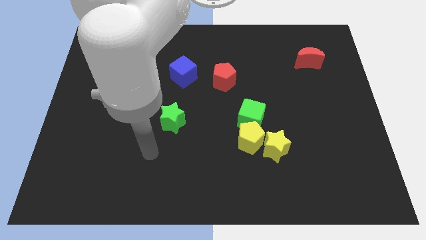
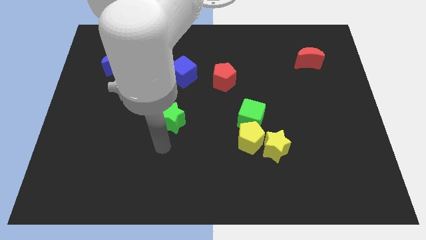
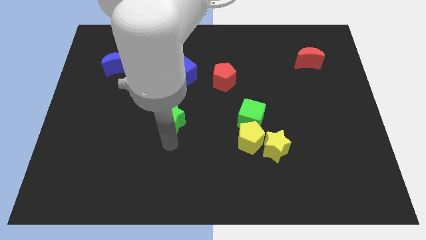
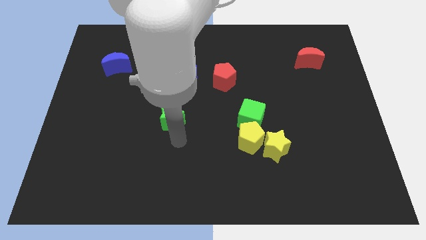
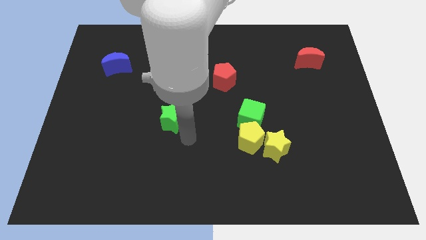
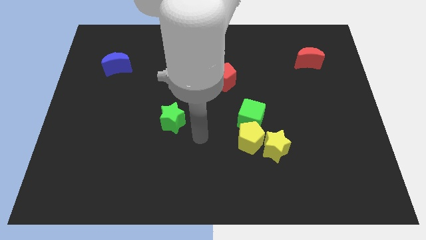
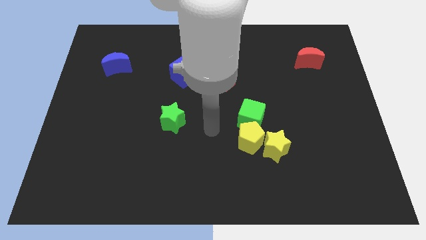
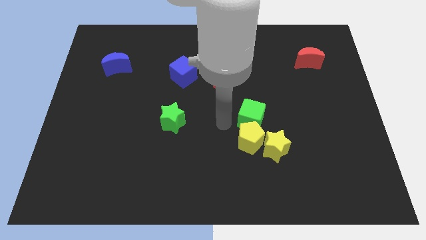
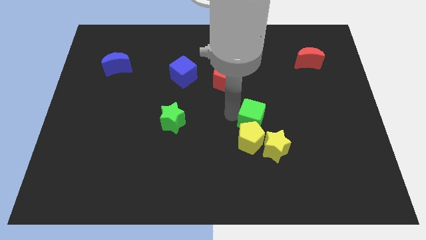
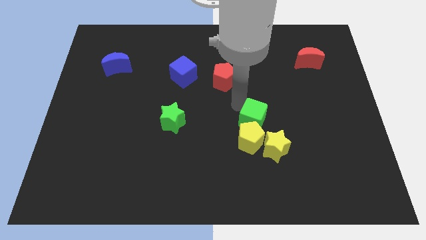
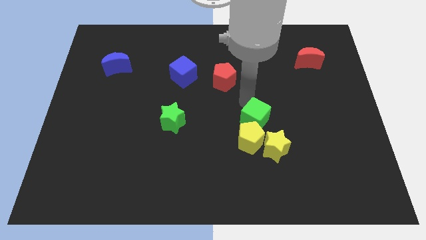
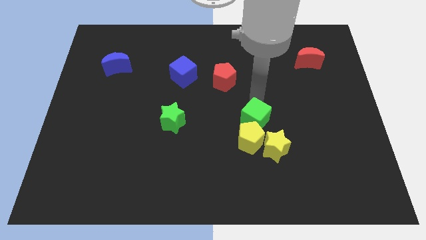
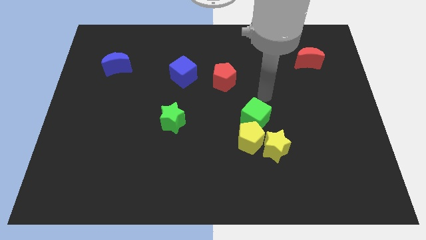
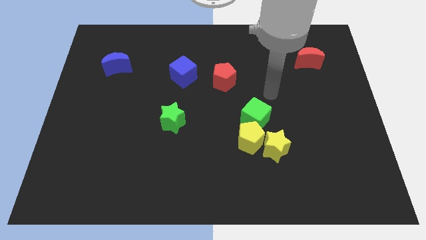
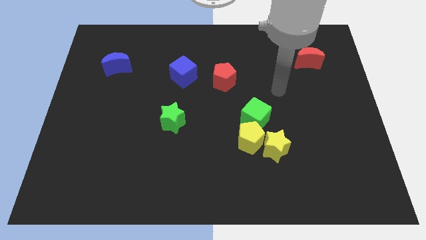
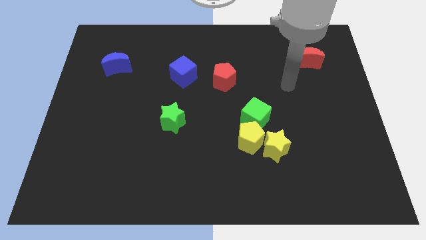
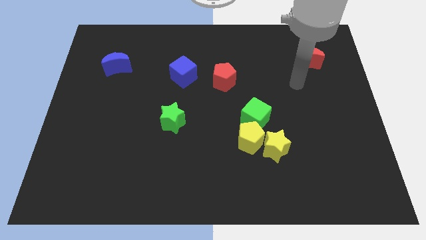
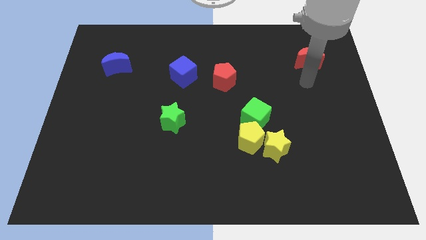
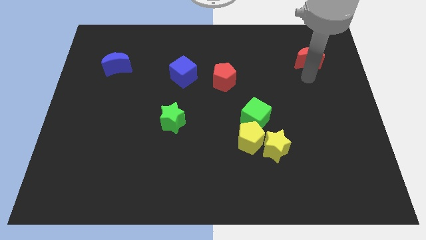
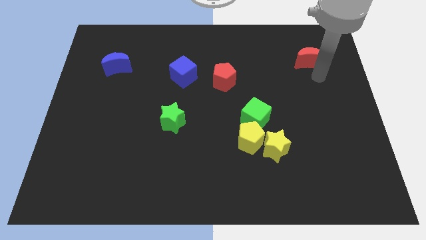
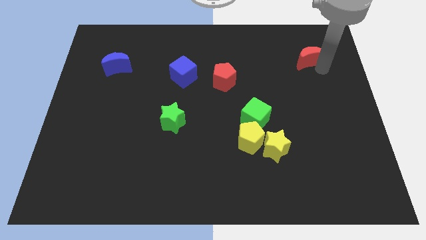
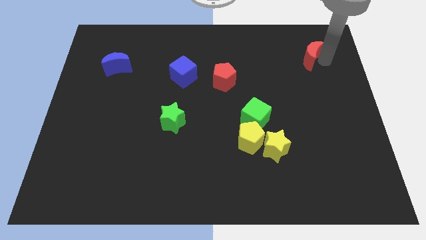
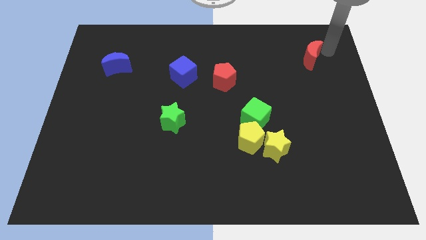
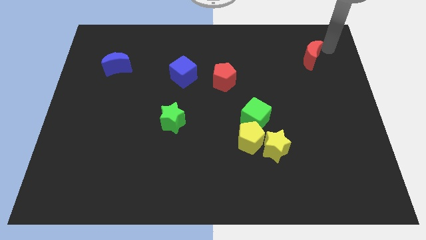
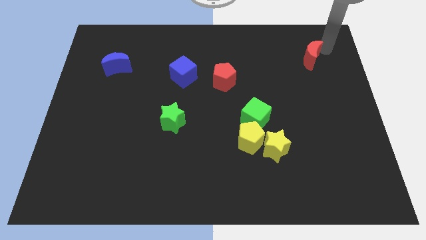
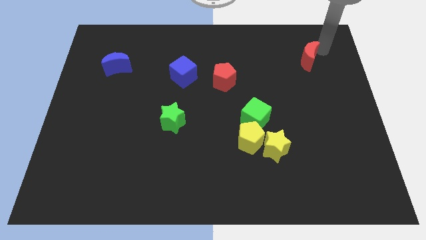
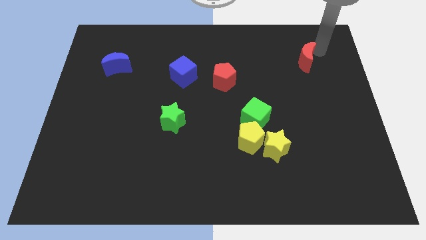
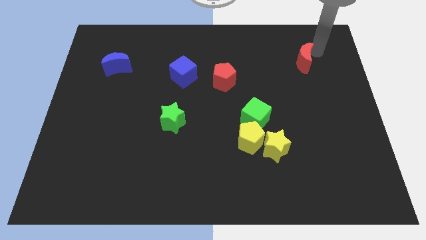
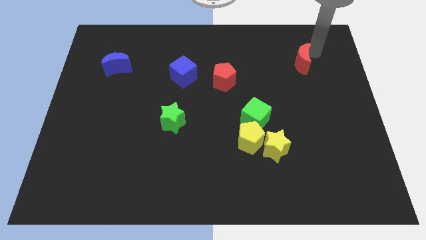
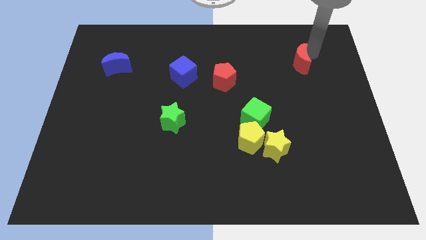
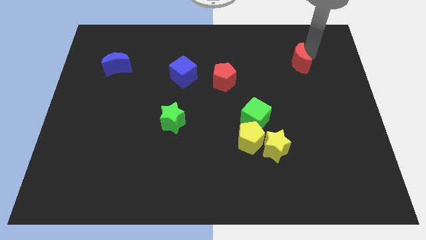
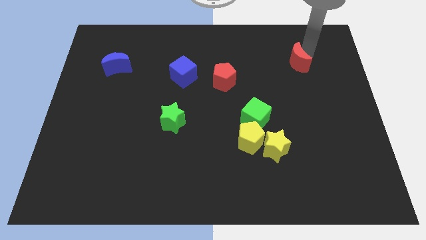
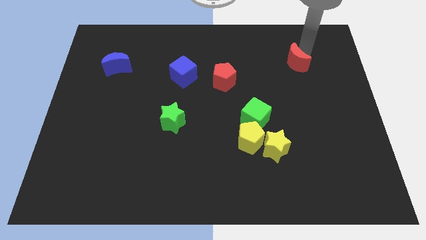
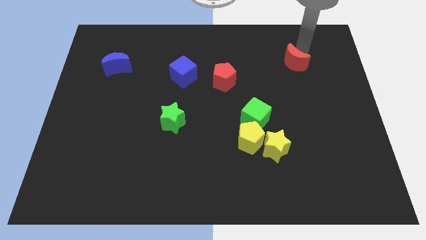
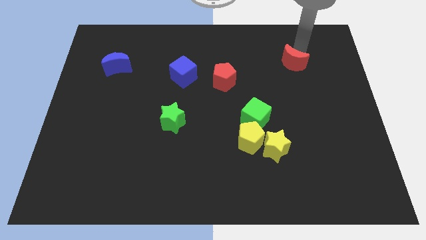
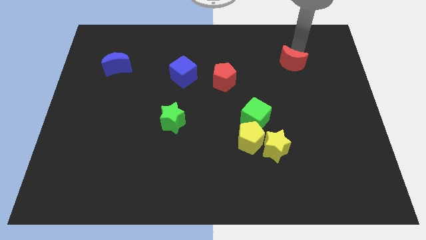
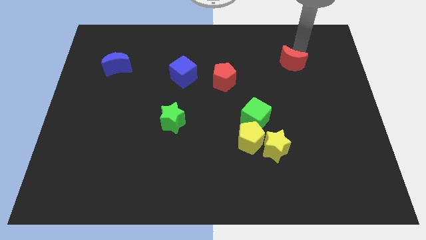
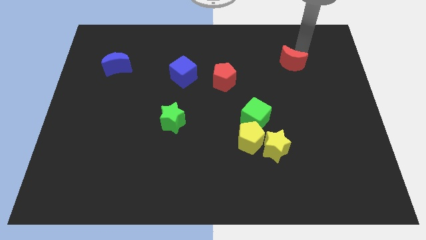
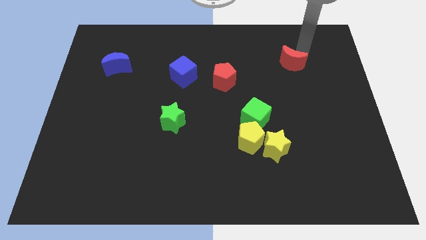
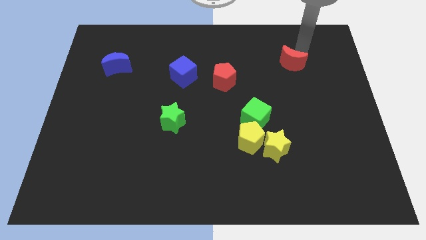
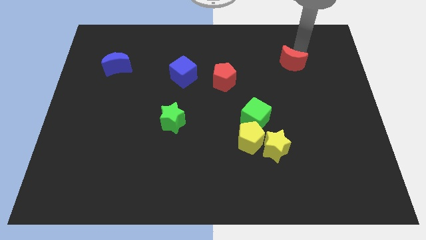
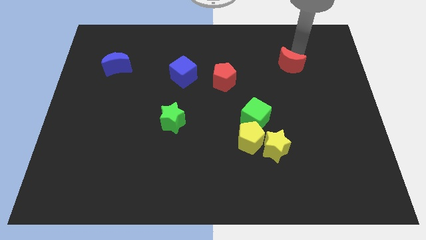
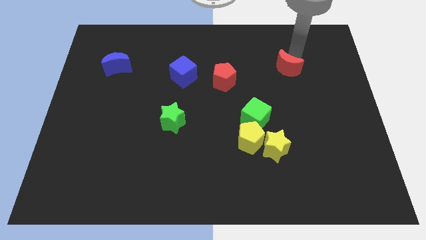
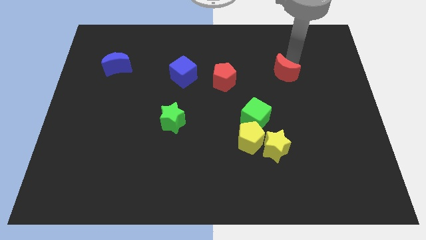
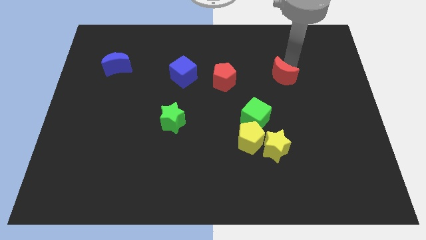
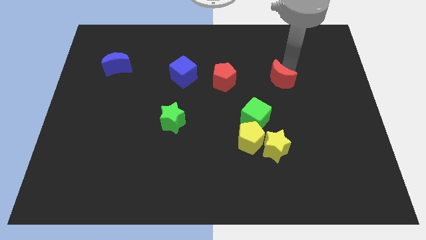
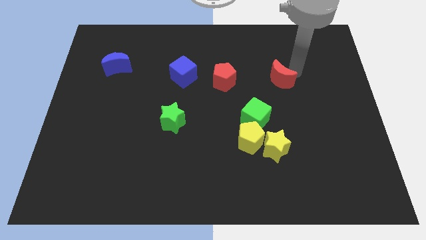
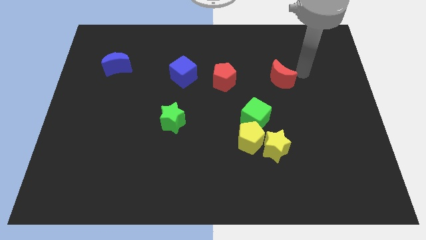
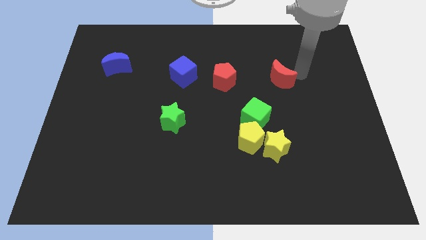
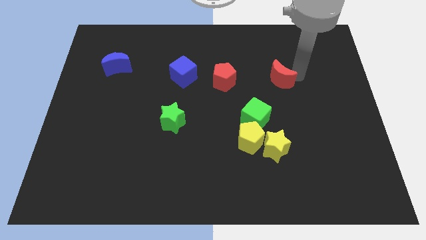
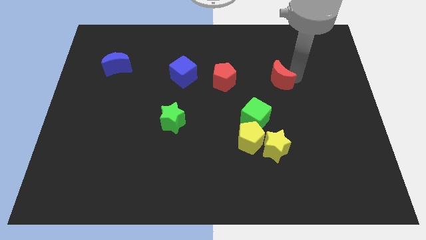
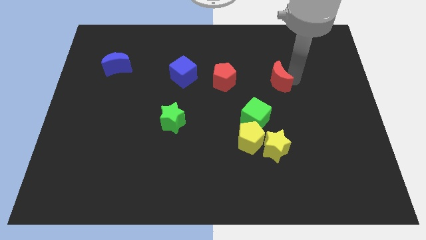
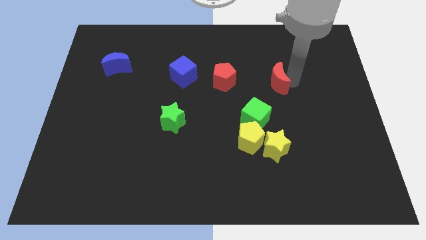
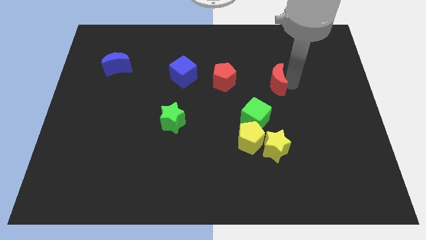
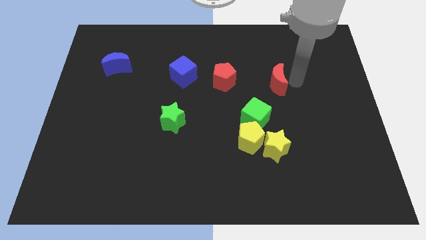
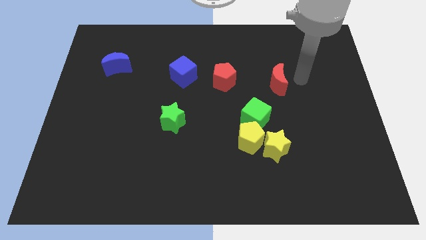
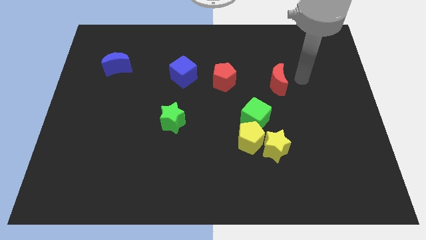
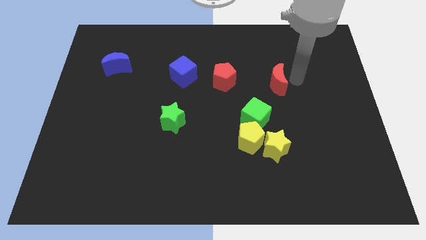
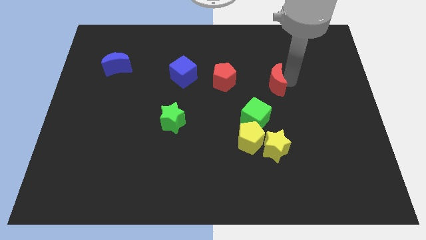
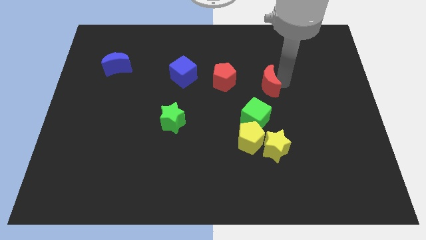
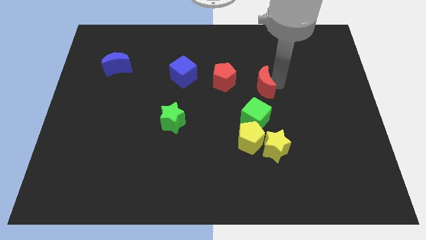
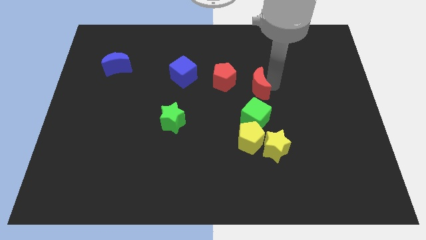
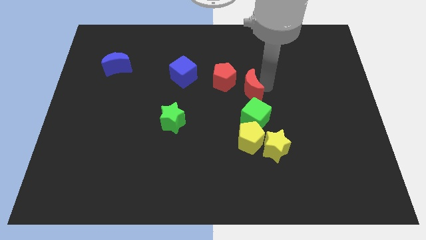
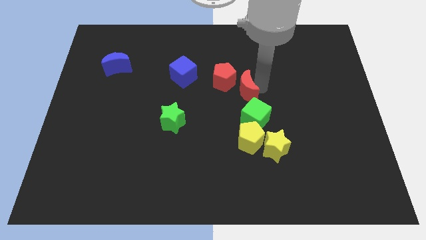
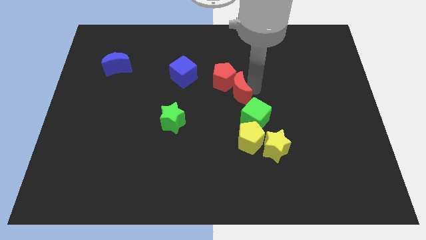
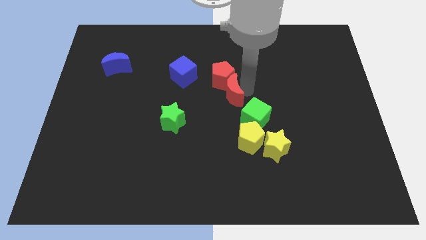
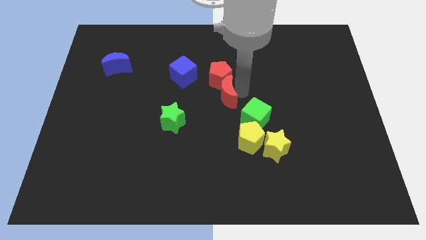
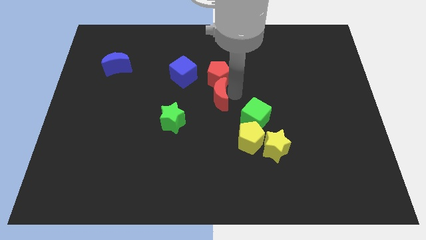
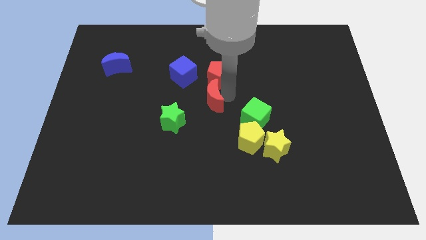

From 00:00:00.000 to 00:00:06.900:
push the red moon to the top right of the green star

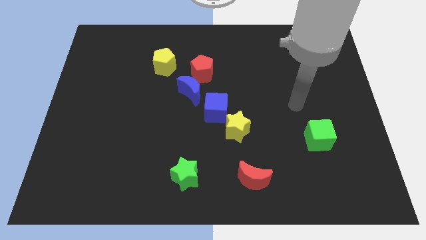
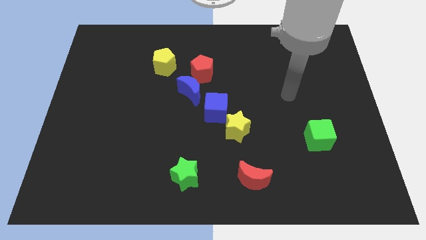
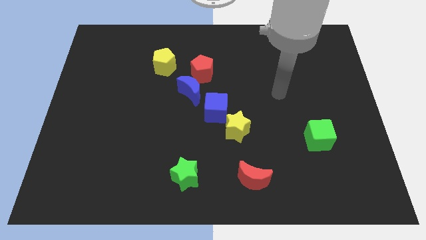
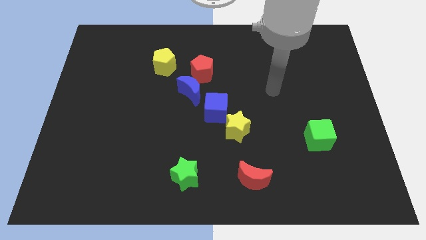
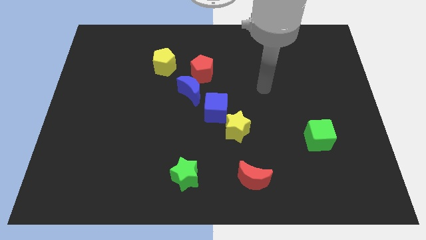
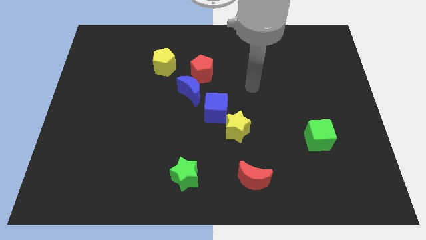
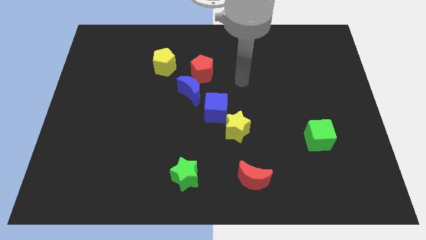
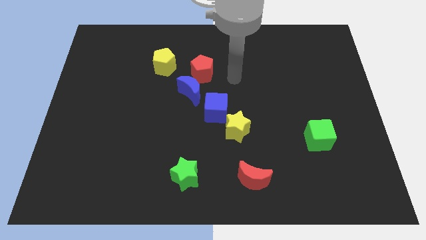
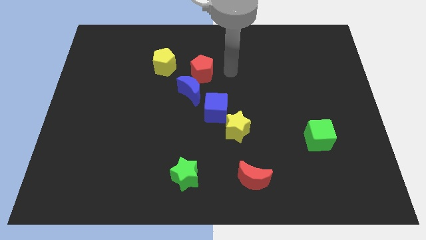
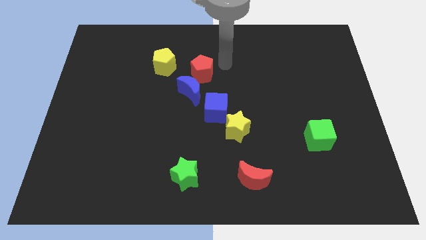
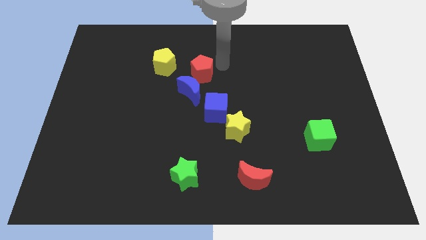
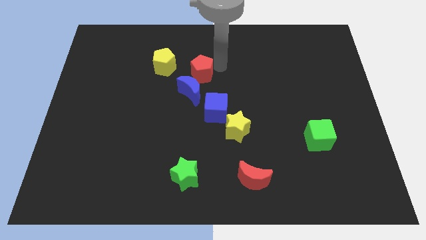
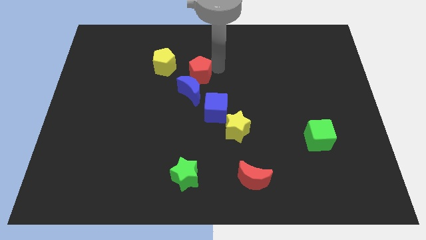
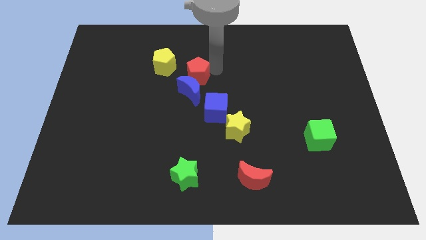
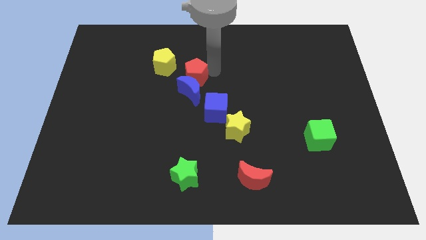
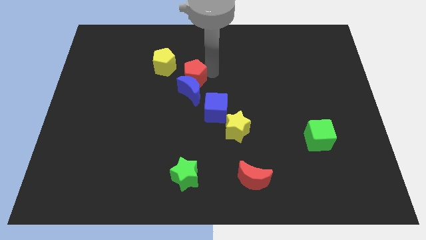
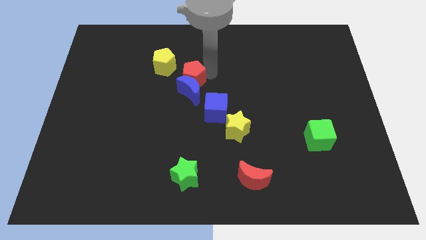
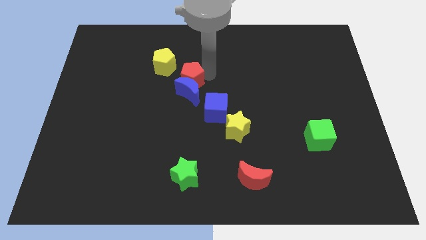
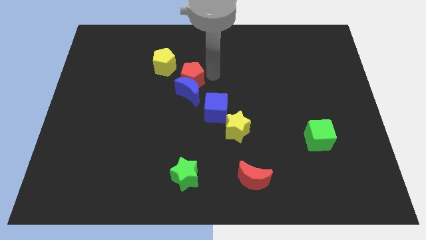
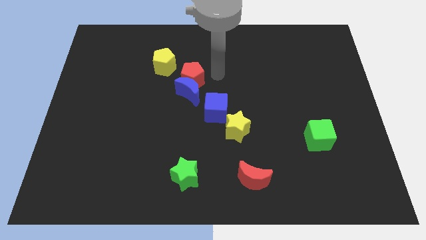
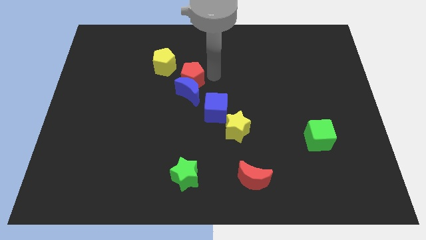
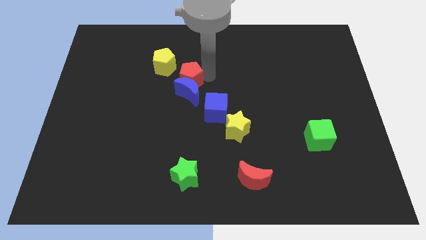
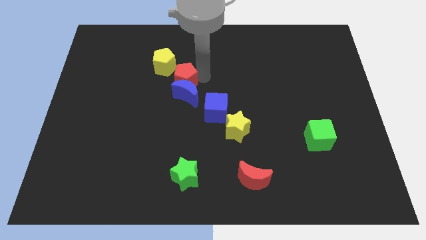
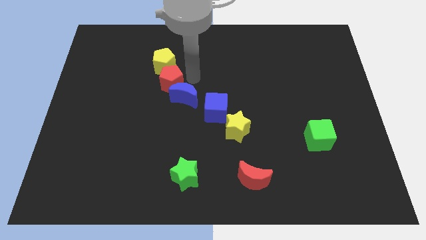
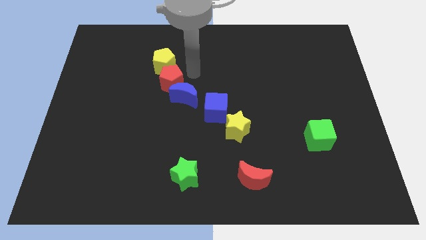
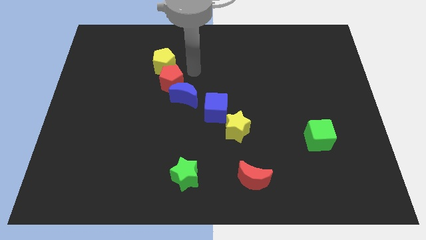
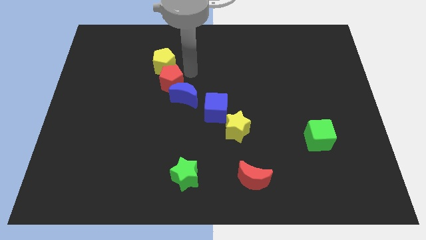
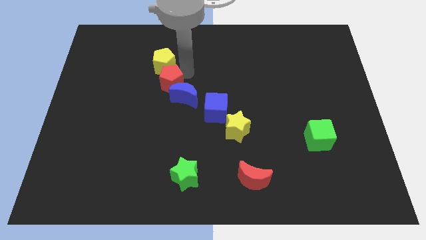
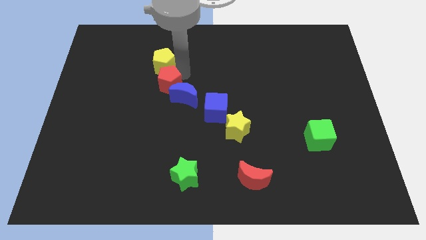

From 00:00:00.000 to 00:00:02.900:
slide the red pentagon to the left side of the blue moon
